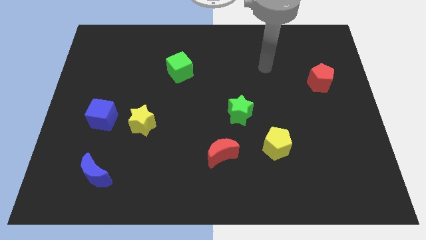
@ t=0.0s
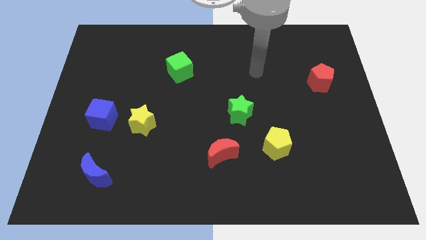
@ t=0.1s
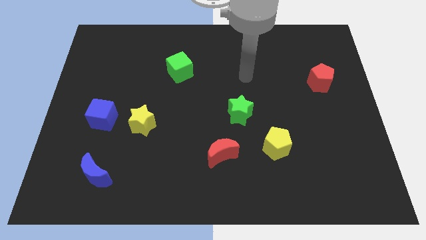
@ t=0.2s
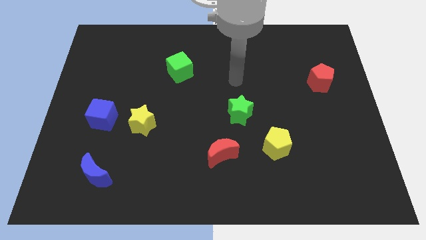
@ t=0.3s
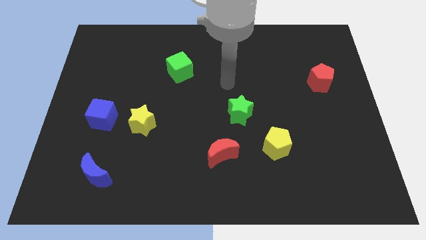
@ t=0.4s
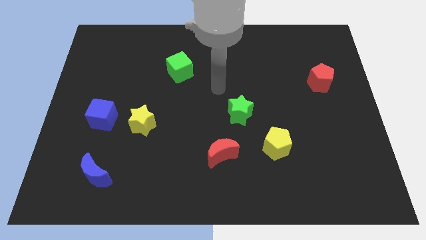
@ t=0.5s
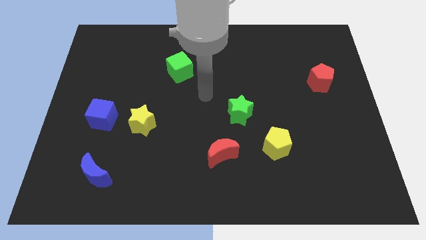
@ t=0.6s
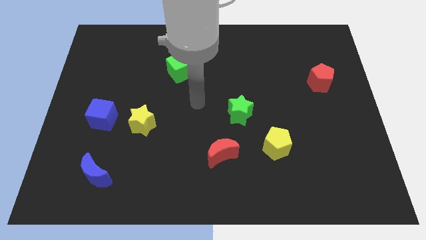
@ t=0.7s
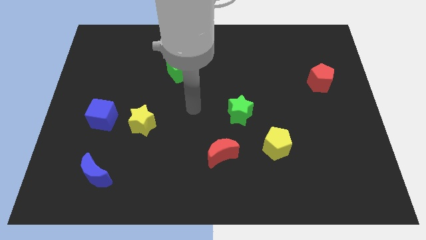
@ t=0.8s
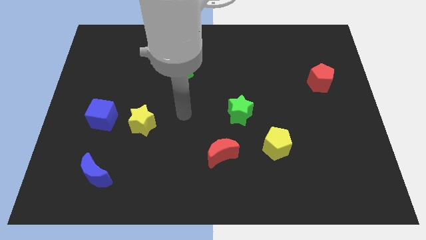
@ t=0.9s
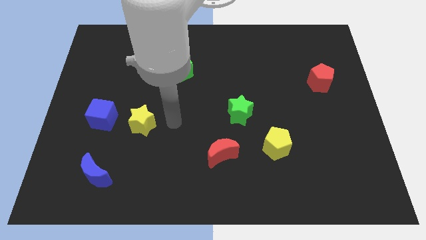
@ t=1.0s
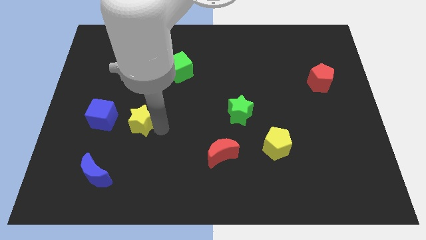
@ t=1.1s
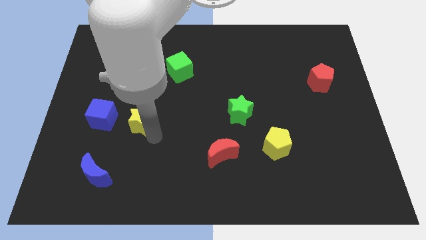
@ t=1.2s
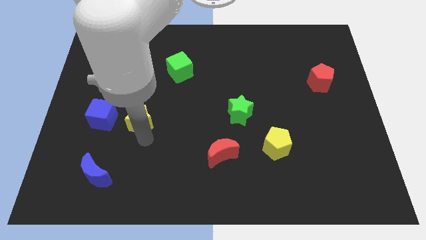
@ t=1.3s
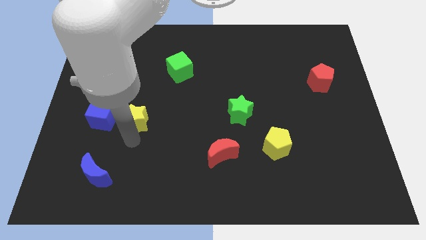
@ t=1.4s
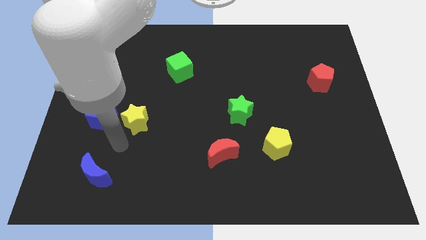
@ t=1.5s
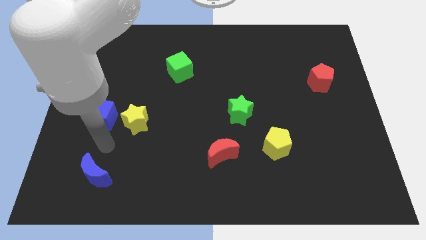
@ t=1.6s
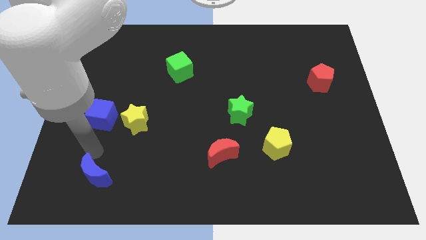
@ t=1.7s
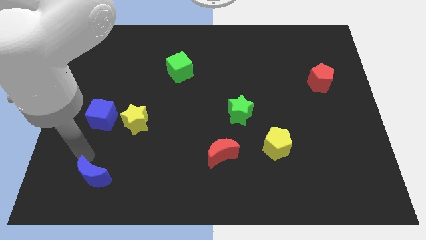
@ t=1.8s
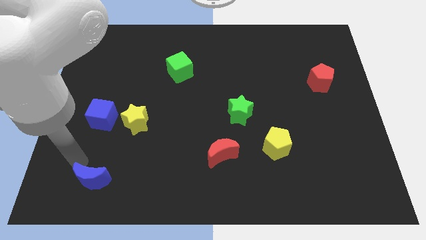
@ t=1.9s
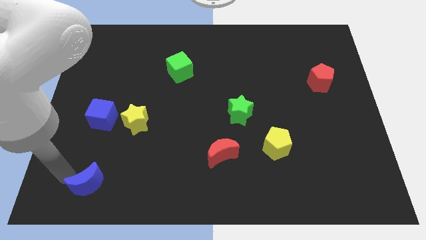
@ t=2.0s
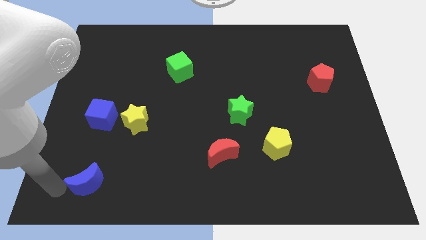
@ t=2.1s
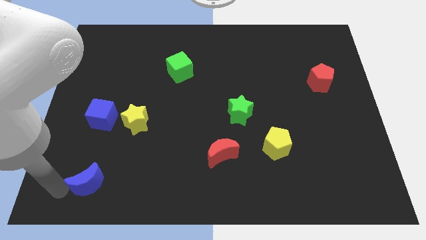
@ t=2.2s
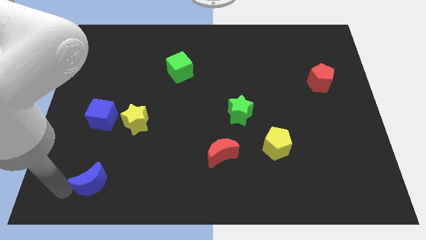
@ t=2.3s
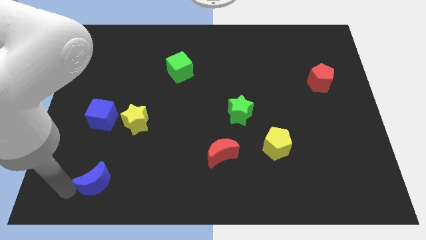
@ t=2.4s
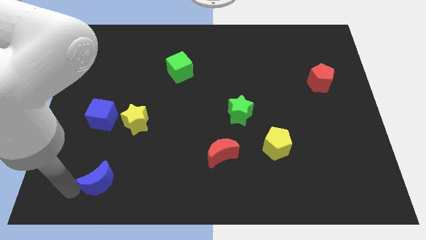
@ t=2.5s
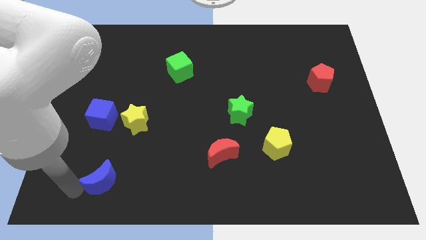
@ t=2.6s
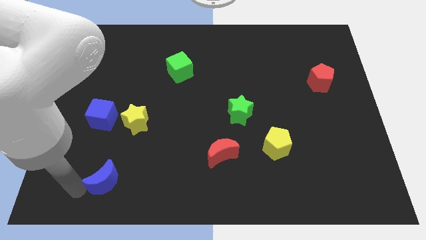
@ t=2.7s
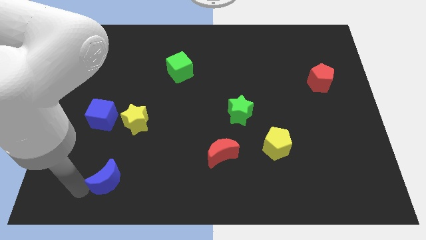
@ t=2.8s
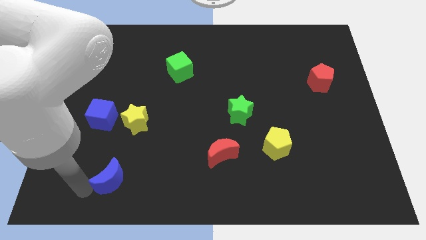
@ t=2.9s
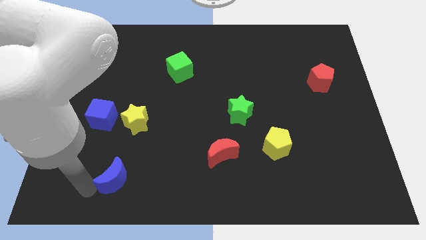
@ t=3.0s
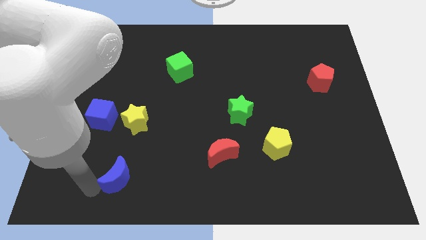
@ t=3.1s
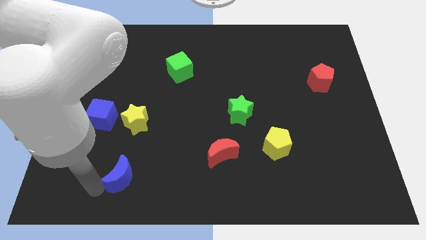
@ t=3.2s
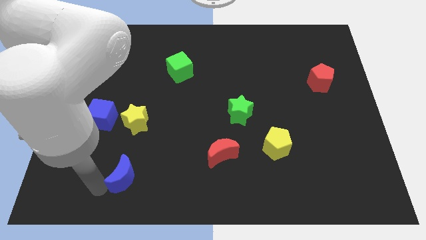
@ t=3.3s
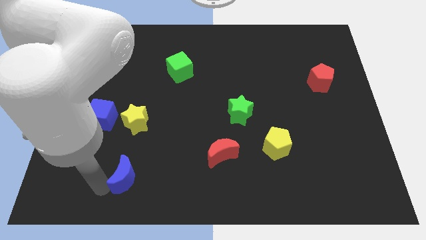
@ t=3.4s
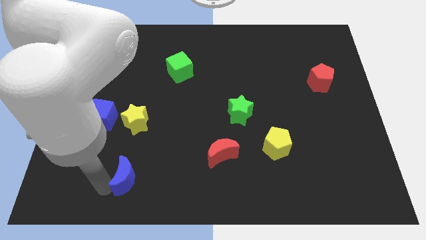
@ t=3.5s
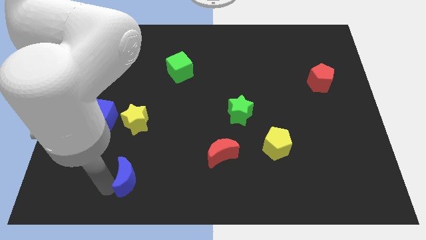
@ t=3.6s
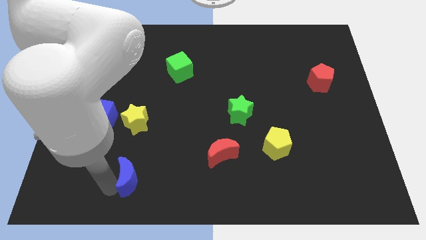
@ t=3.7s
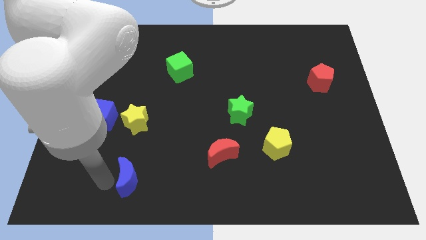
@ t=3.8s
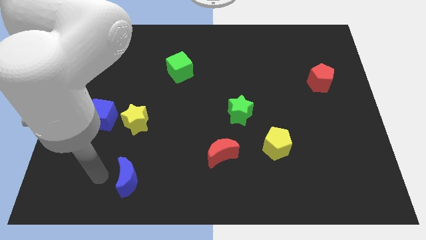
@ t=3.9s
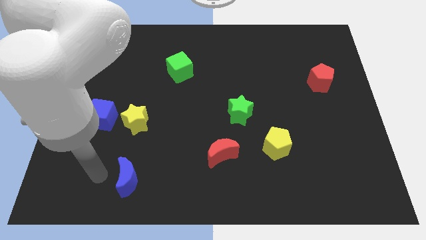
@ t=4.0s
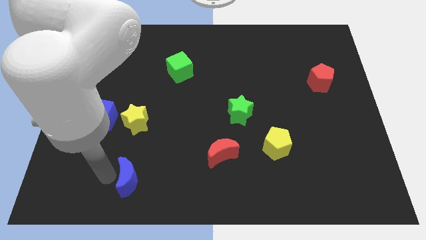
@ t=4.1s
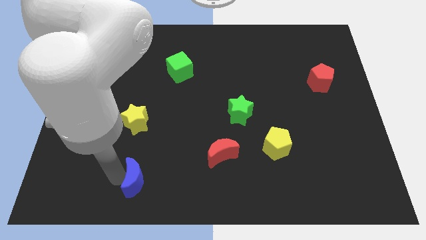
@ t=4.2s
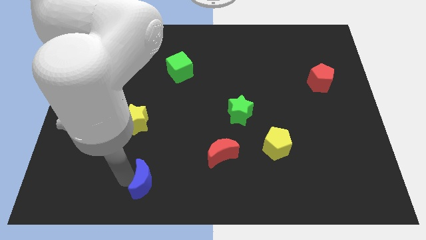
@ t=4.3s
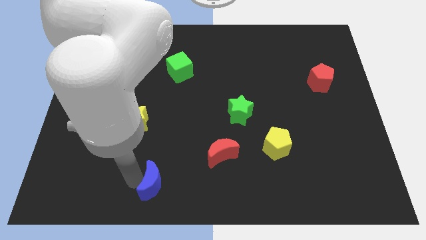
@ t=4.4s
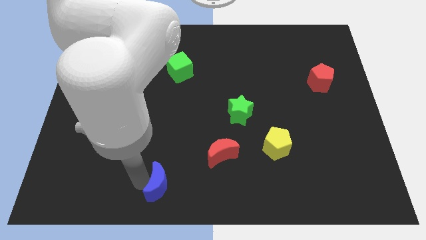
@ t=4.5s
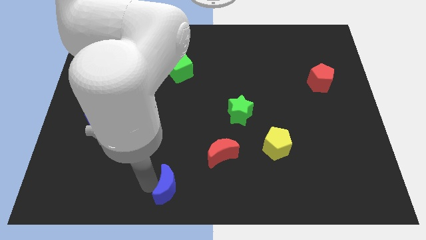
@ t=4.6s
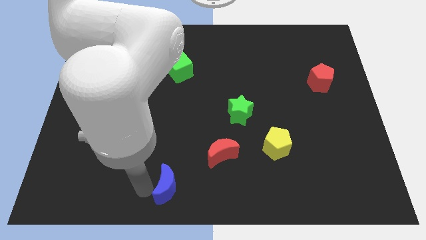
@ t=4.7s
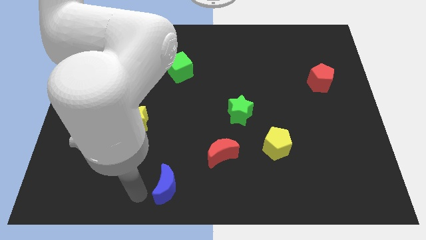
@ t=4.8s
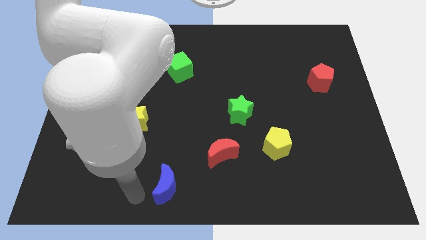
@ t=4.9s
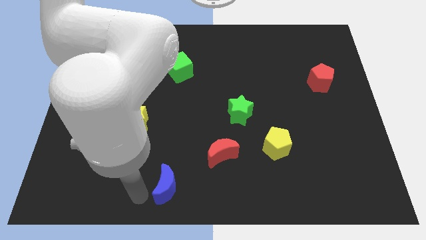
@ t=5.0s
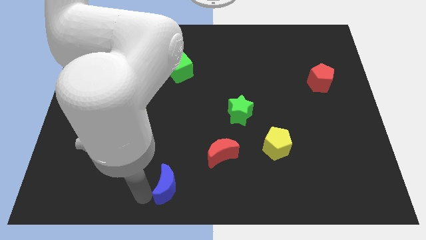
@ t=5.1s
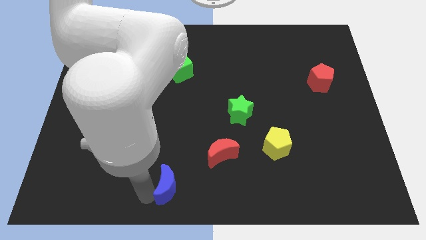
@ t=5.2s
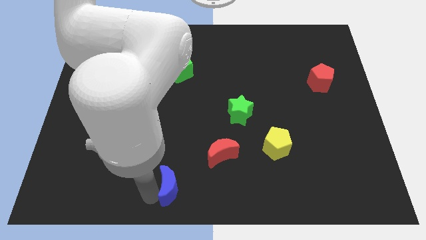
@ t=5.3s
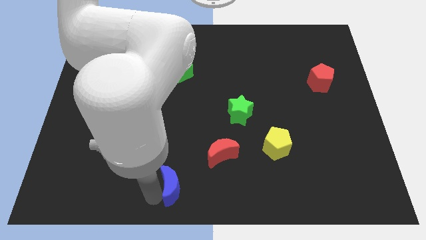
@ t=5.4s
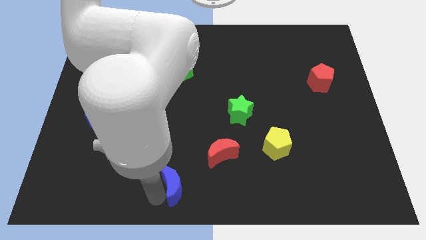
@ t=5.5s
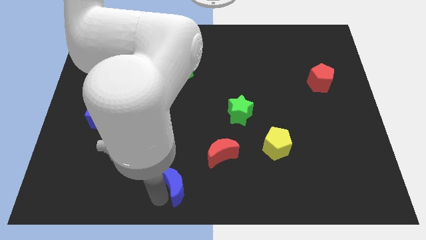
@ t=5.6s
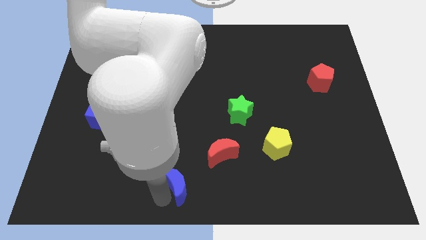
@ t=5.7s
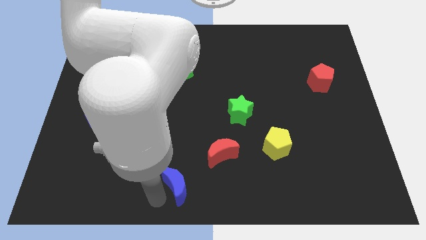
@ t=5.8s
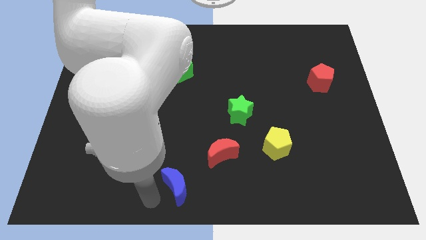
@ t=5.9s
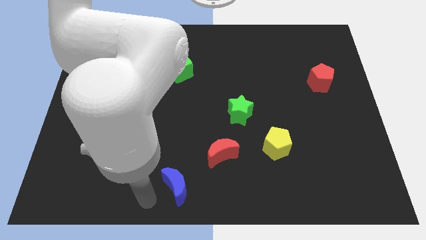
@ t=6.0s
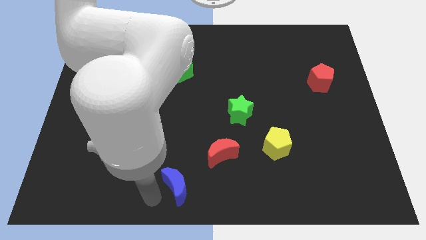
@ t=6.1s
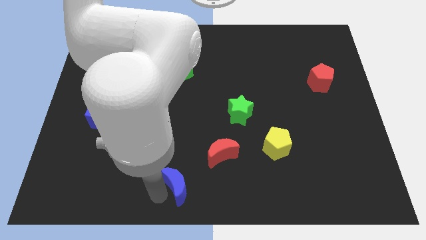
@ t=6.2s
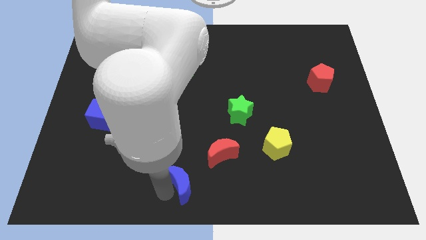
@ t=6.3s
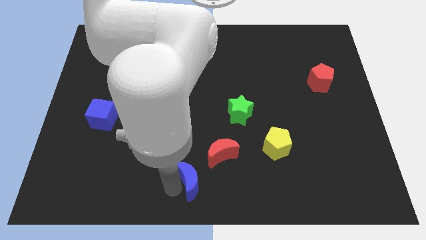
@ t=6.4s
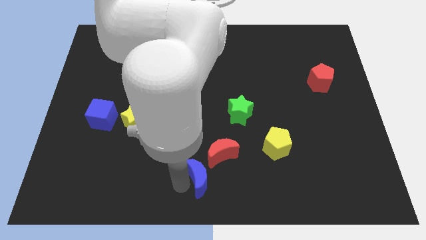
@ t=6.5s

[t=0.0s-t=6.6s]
move the blue moon to the right

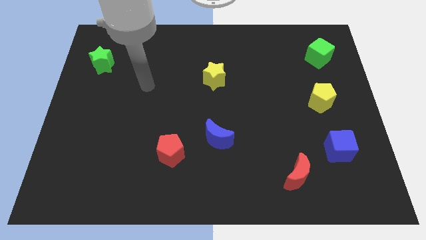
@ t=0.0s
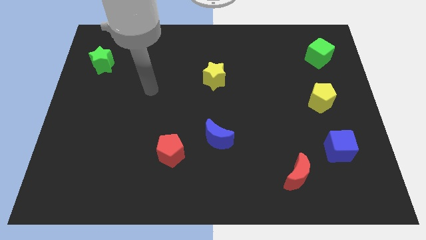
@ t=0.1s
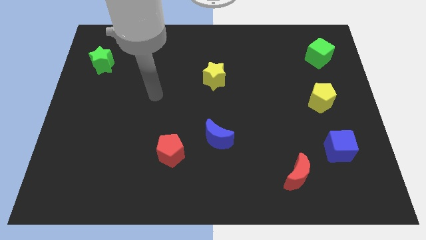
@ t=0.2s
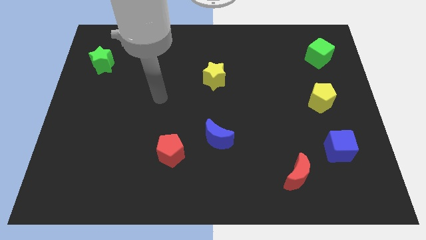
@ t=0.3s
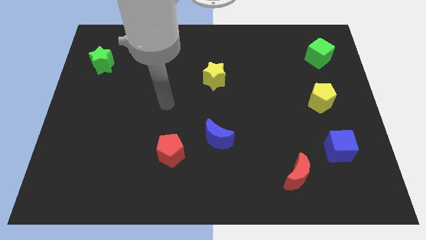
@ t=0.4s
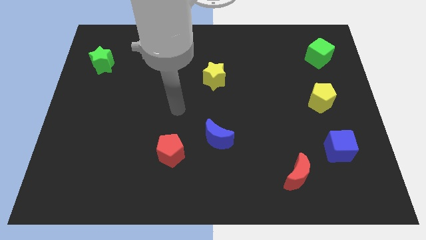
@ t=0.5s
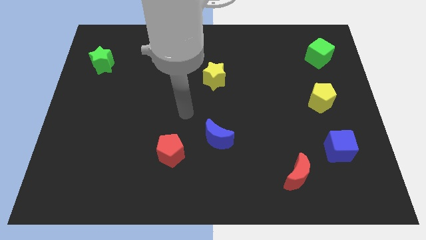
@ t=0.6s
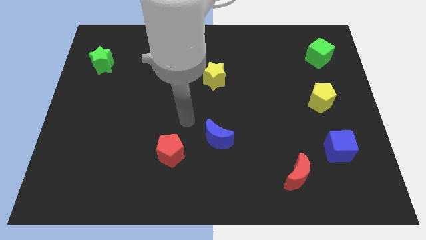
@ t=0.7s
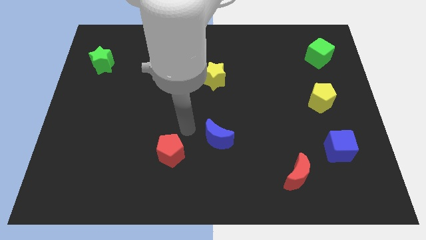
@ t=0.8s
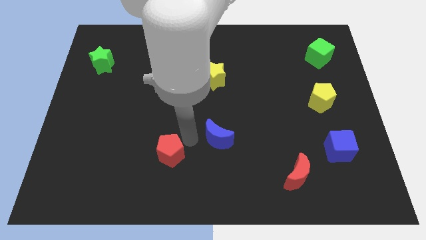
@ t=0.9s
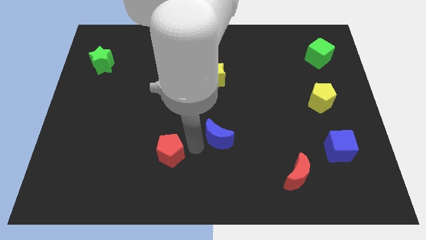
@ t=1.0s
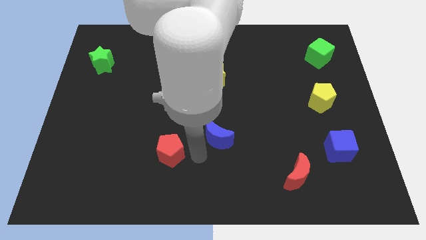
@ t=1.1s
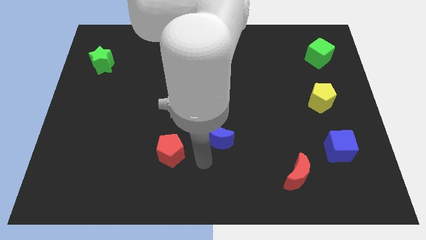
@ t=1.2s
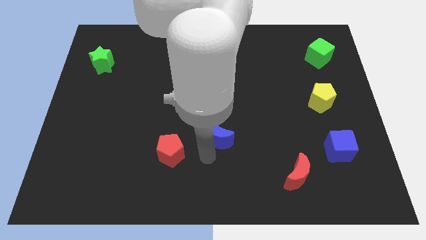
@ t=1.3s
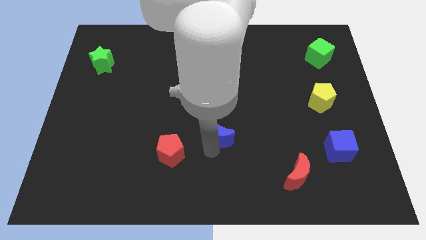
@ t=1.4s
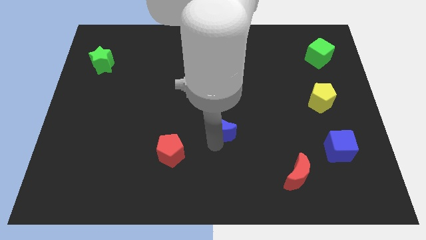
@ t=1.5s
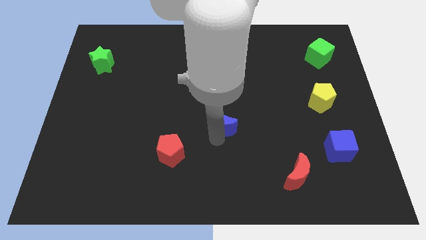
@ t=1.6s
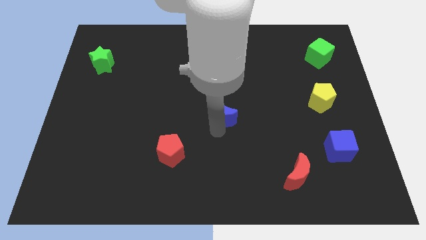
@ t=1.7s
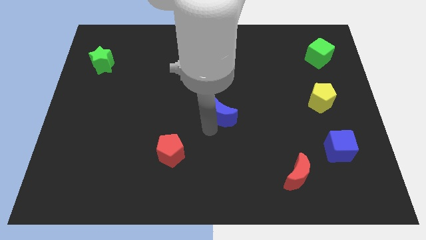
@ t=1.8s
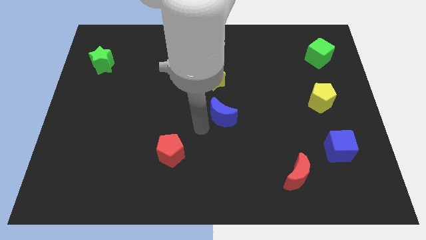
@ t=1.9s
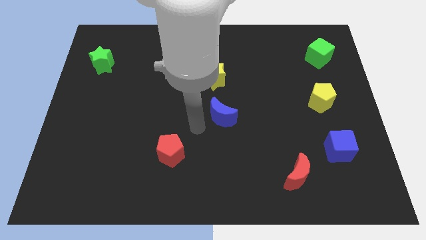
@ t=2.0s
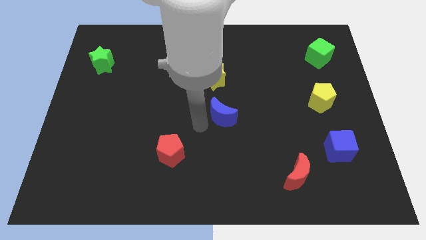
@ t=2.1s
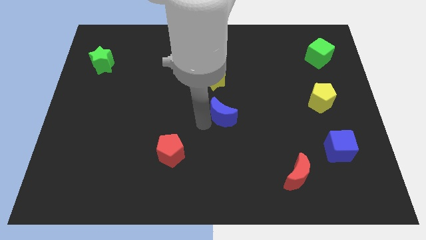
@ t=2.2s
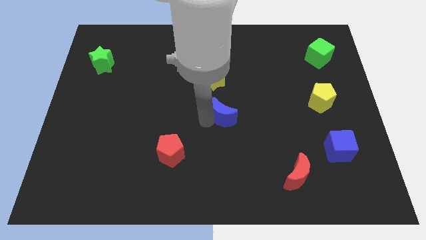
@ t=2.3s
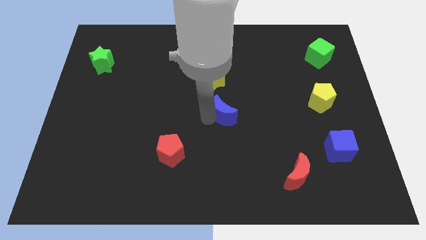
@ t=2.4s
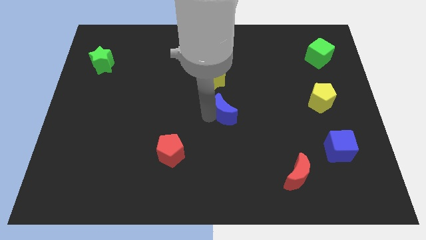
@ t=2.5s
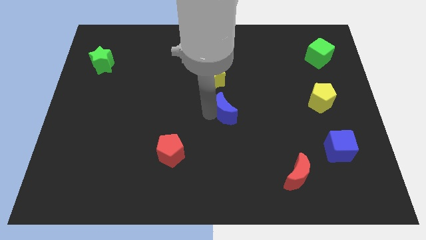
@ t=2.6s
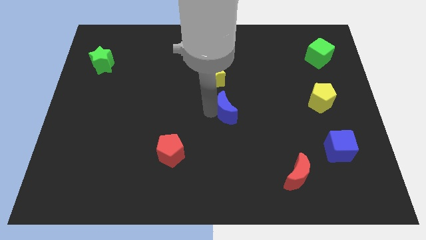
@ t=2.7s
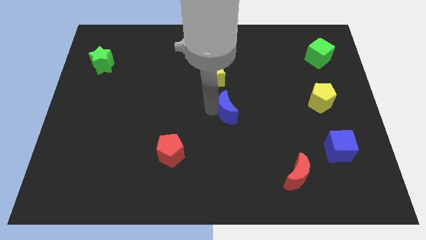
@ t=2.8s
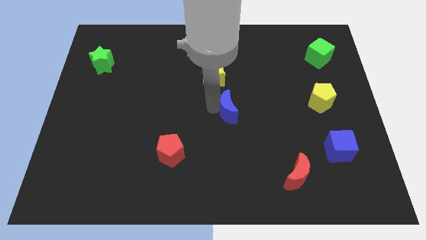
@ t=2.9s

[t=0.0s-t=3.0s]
push the blue moon somewhat up and to the right diagonally
